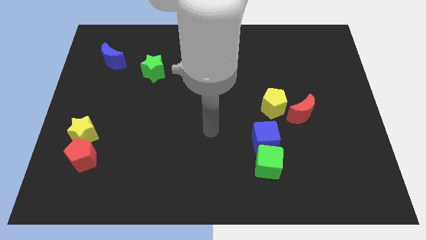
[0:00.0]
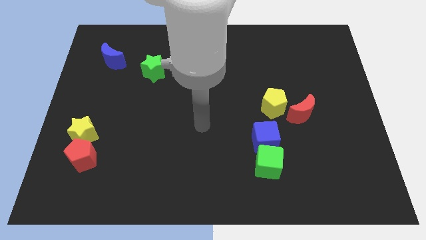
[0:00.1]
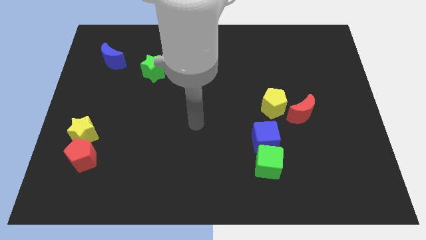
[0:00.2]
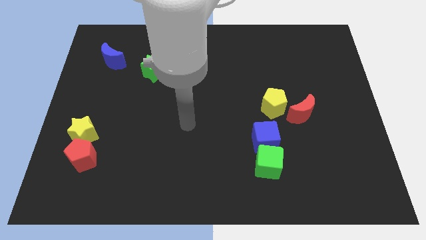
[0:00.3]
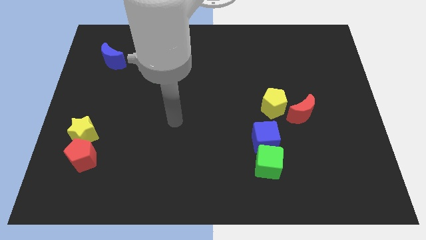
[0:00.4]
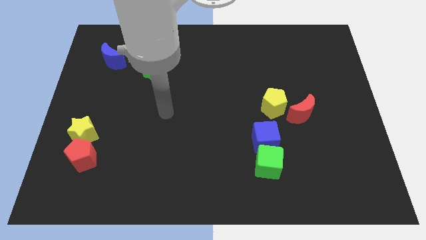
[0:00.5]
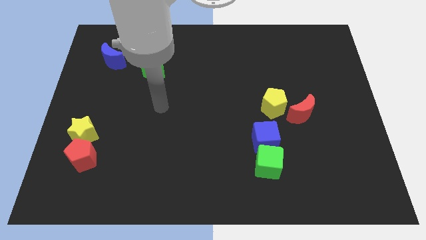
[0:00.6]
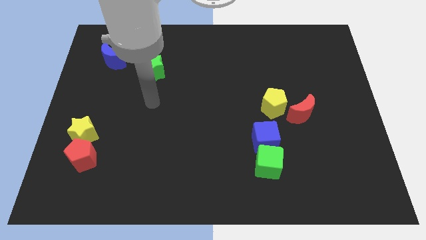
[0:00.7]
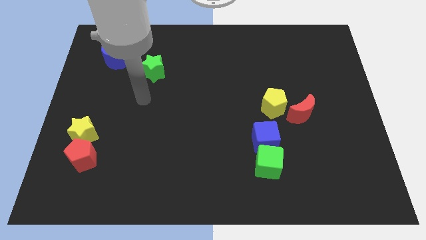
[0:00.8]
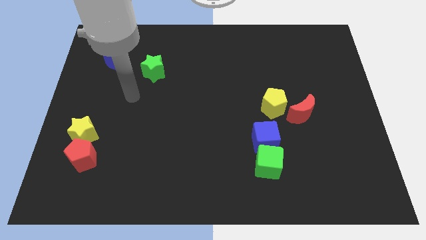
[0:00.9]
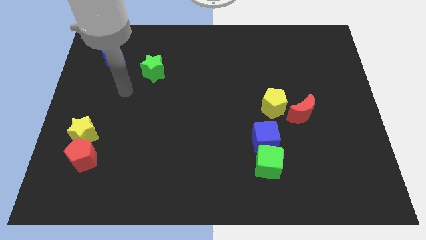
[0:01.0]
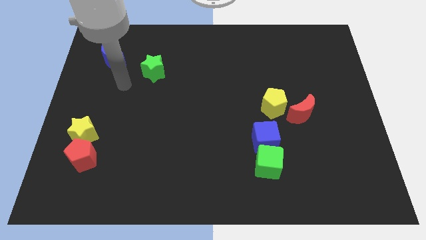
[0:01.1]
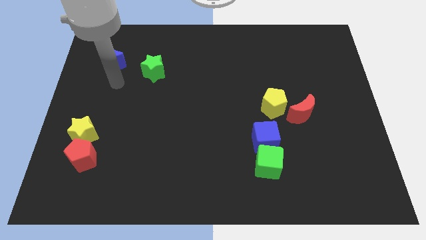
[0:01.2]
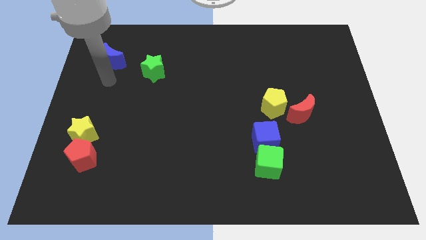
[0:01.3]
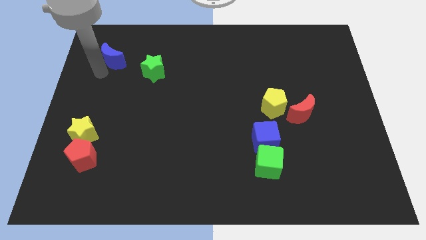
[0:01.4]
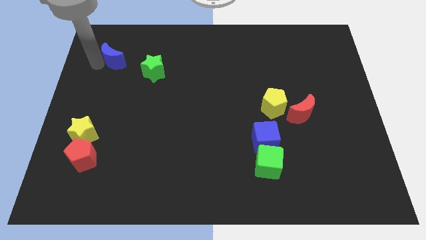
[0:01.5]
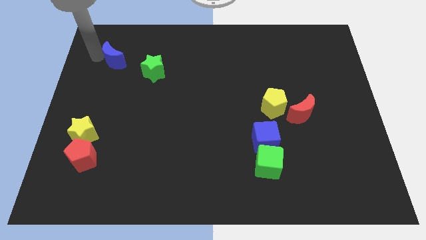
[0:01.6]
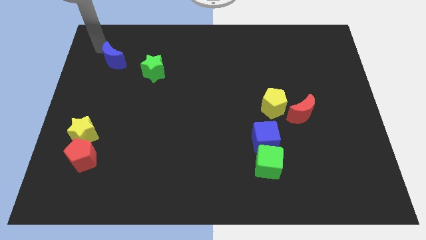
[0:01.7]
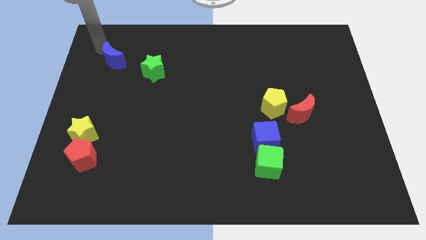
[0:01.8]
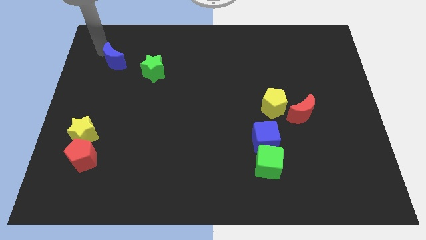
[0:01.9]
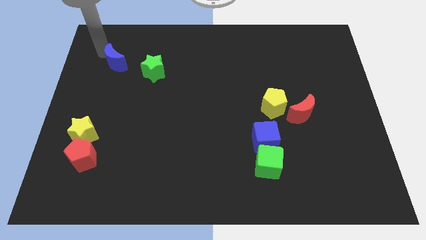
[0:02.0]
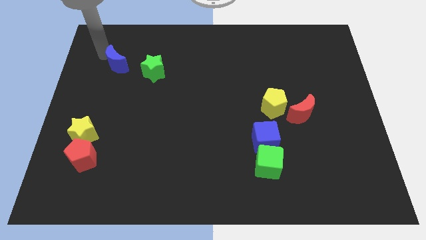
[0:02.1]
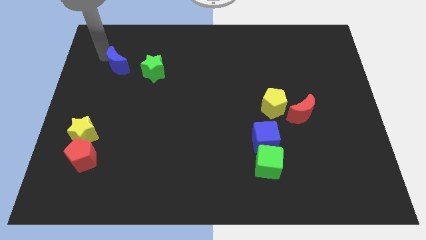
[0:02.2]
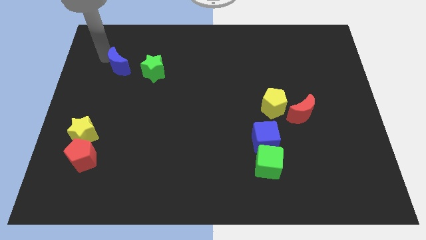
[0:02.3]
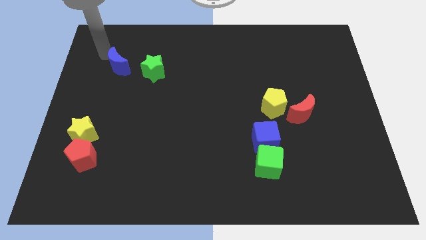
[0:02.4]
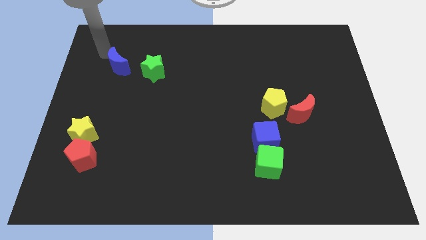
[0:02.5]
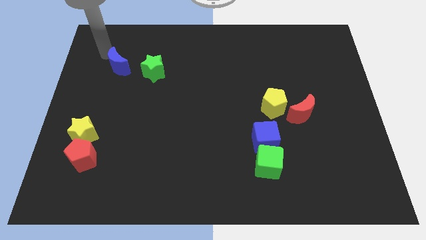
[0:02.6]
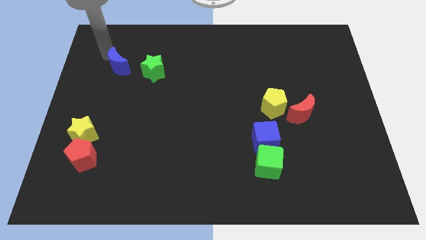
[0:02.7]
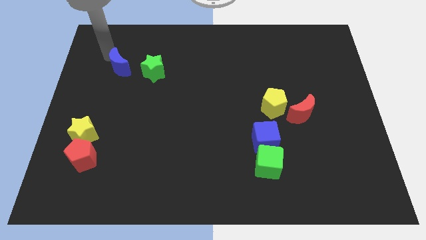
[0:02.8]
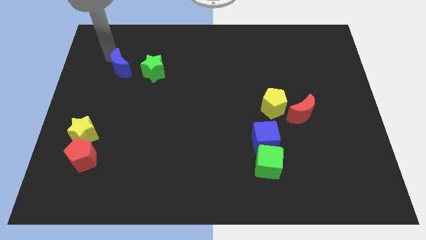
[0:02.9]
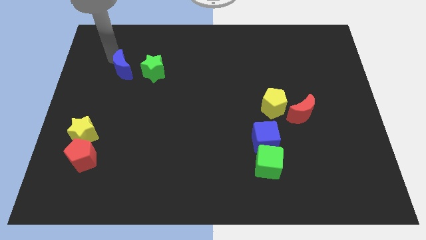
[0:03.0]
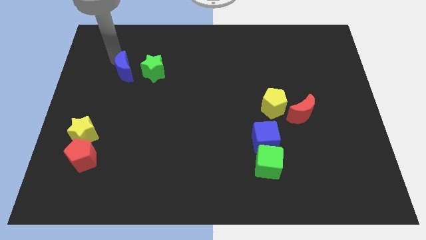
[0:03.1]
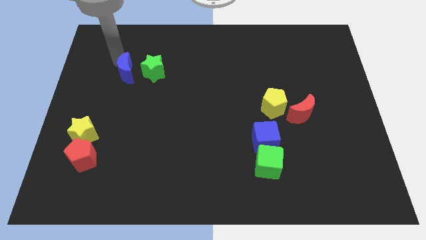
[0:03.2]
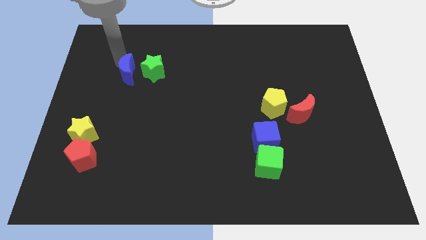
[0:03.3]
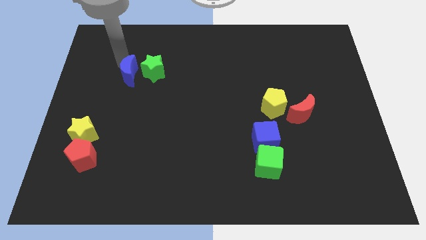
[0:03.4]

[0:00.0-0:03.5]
slide the blue moon downwards and then right a little bit

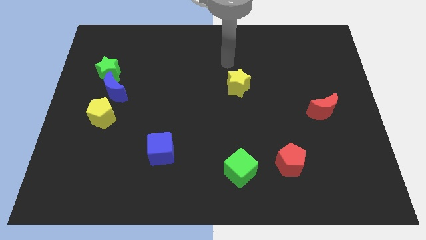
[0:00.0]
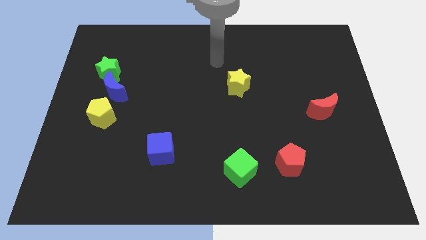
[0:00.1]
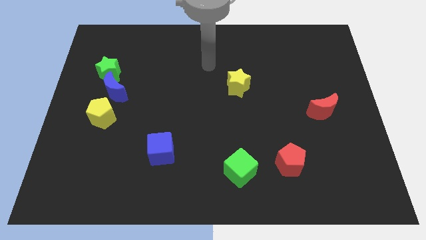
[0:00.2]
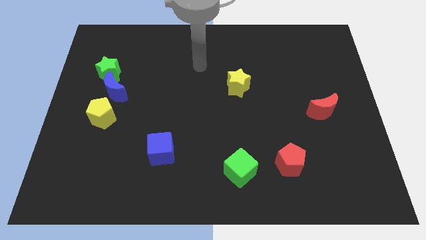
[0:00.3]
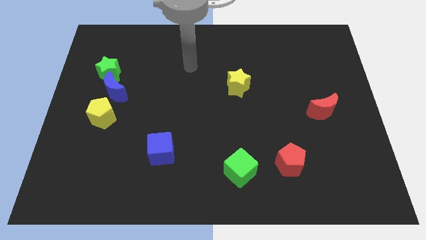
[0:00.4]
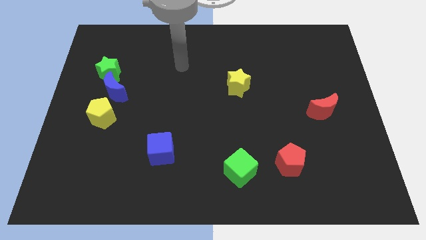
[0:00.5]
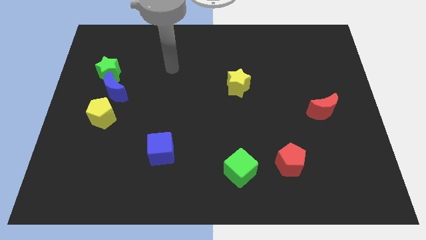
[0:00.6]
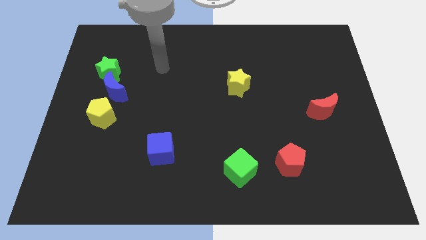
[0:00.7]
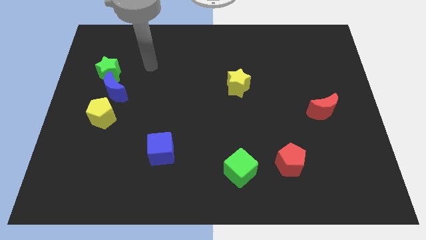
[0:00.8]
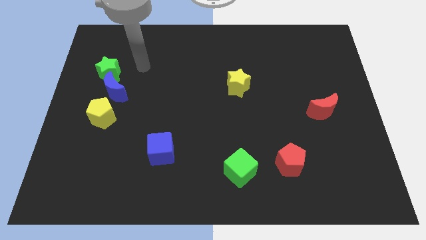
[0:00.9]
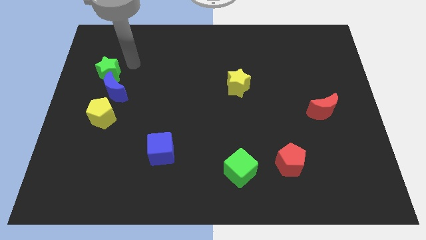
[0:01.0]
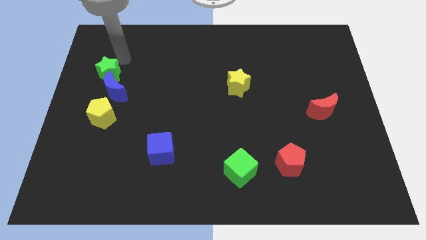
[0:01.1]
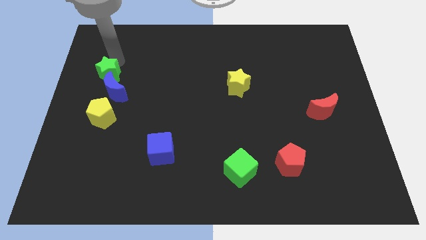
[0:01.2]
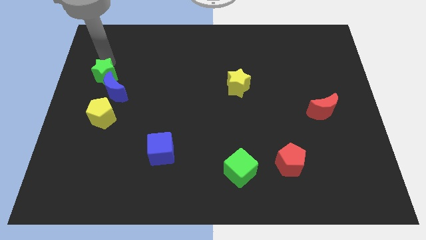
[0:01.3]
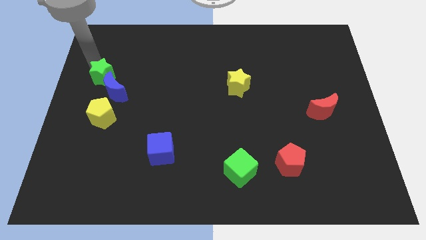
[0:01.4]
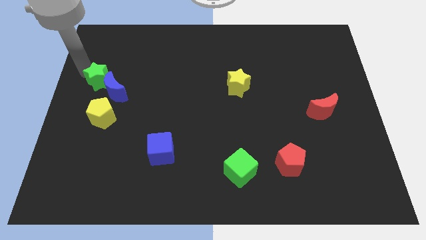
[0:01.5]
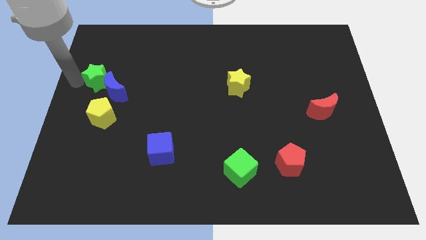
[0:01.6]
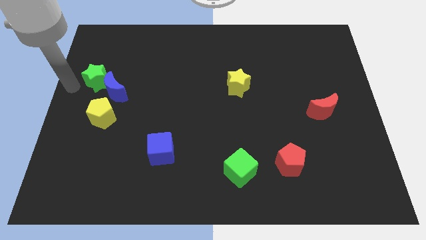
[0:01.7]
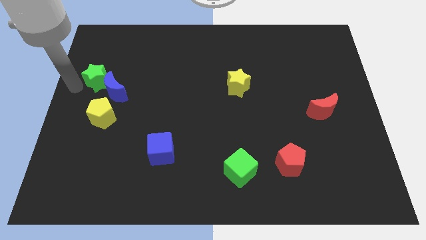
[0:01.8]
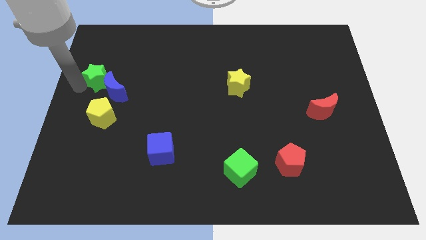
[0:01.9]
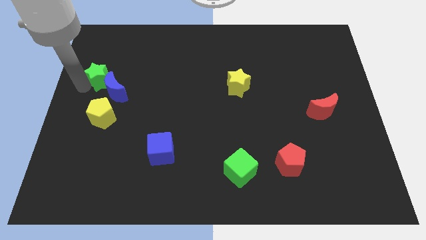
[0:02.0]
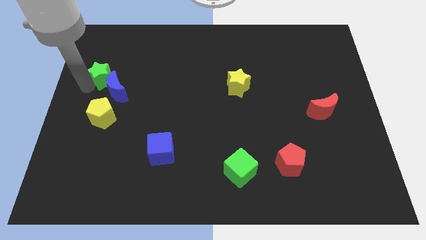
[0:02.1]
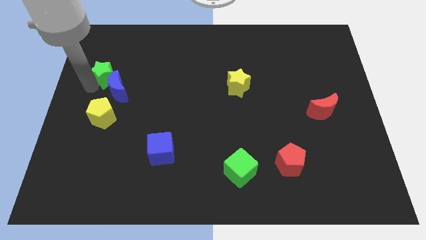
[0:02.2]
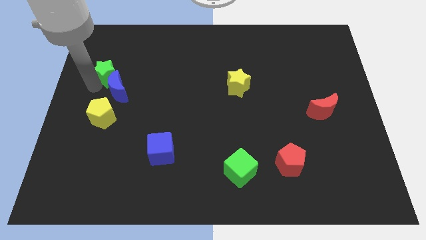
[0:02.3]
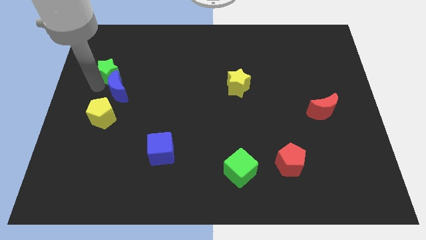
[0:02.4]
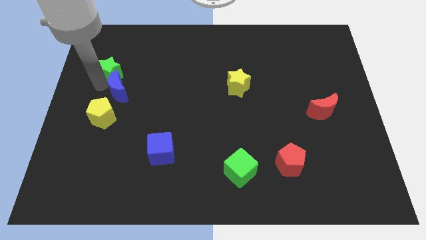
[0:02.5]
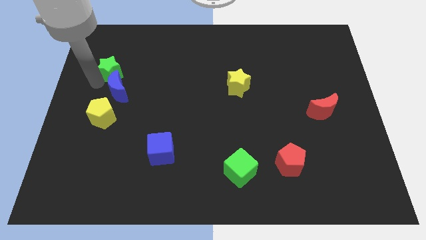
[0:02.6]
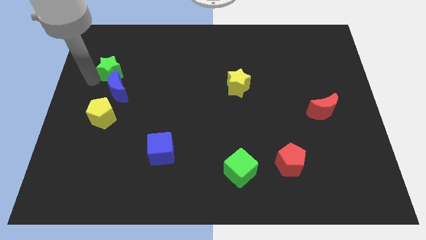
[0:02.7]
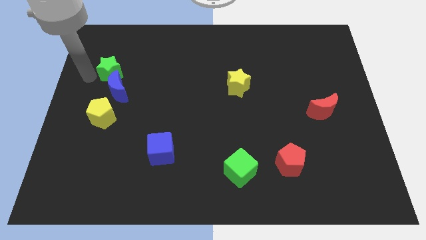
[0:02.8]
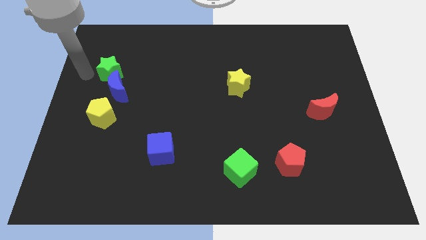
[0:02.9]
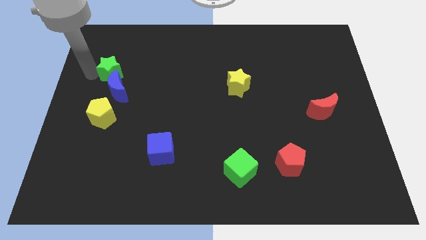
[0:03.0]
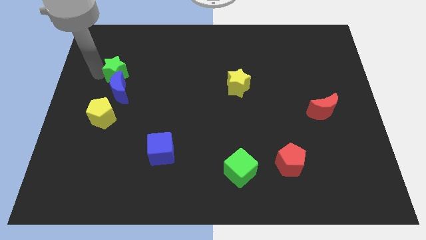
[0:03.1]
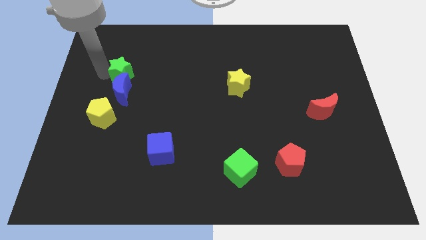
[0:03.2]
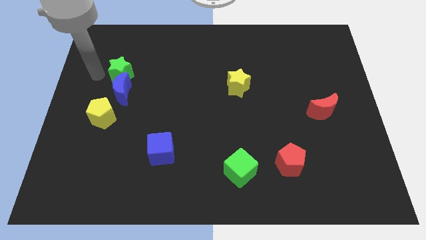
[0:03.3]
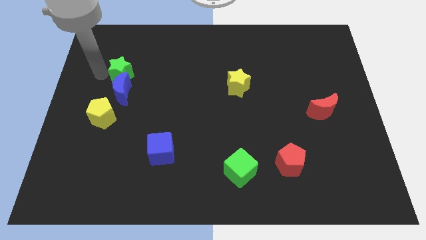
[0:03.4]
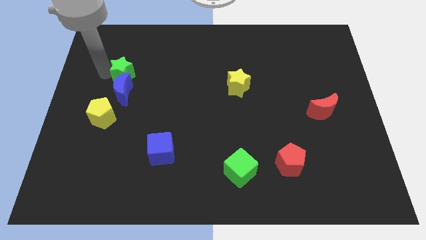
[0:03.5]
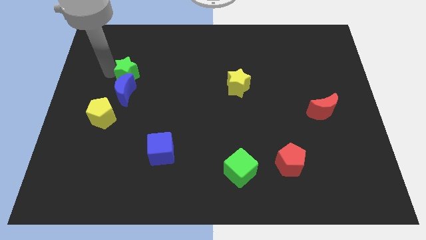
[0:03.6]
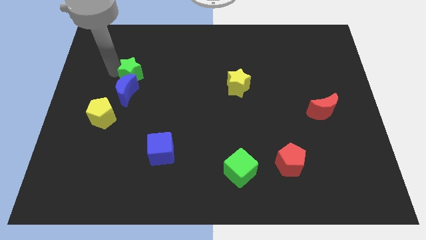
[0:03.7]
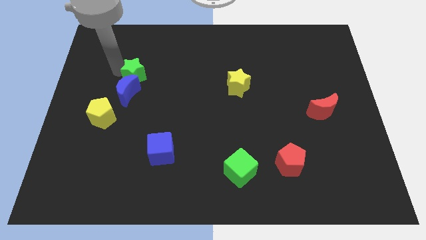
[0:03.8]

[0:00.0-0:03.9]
slightly push the green star right

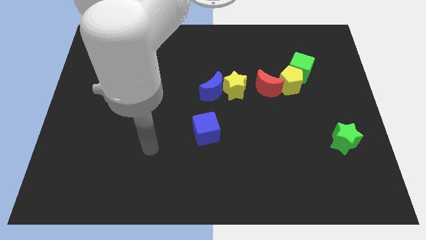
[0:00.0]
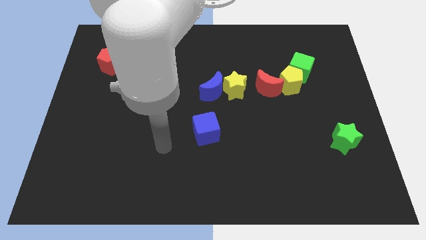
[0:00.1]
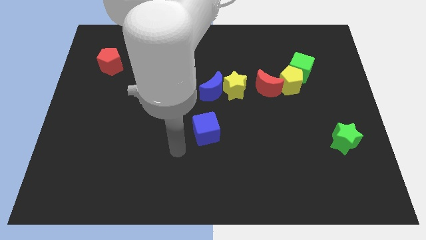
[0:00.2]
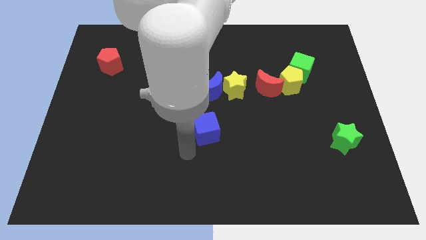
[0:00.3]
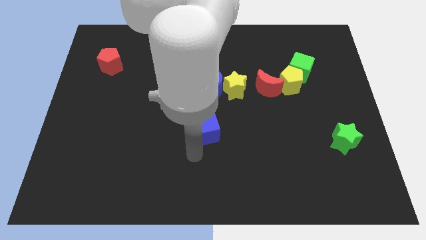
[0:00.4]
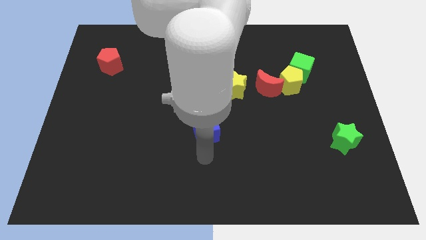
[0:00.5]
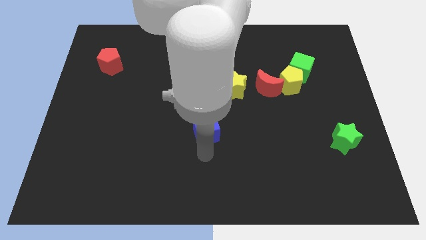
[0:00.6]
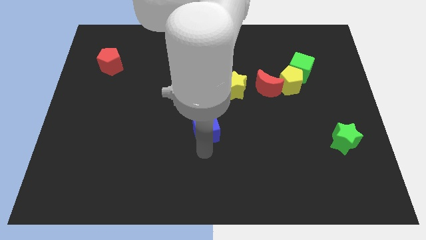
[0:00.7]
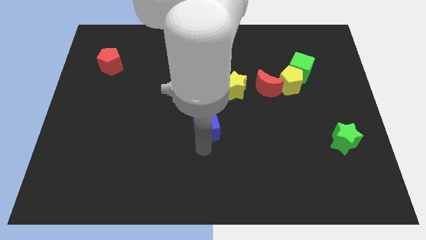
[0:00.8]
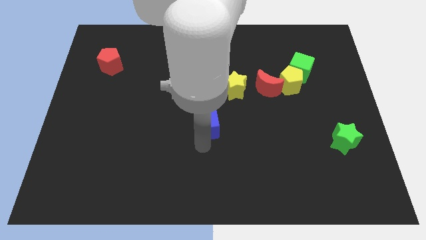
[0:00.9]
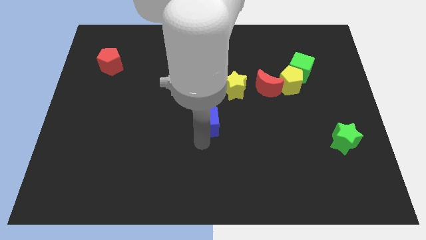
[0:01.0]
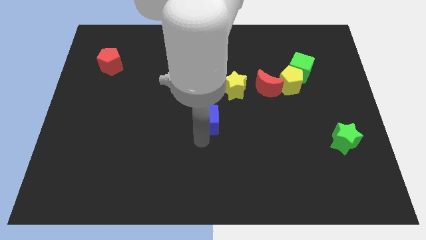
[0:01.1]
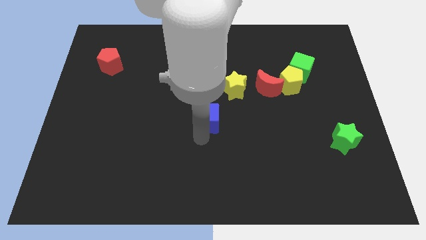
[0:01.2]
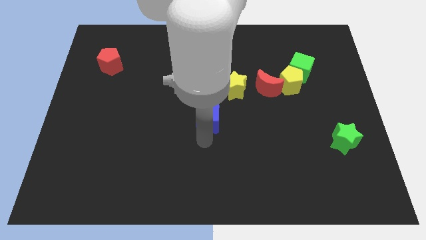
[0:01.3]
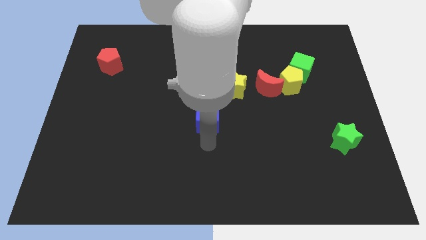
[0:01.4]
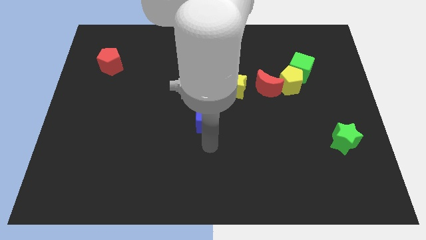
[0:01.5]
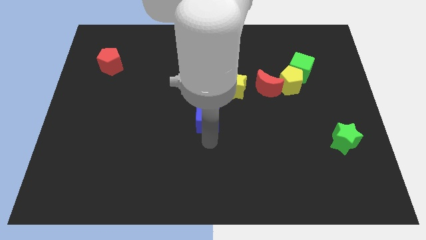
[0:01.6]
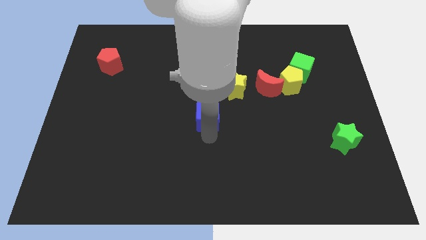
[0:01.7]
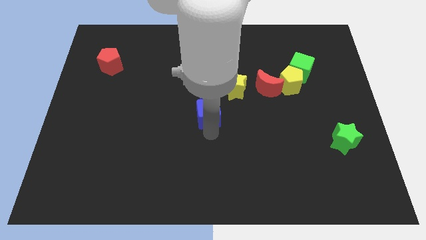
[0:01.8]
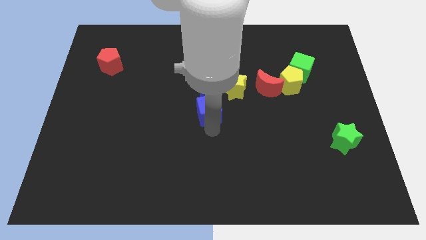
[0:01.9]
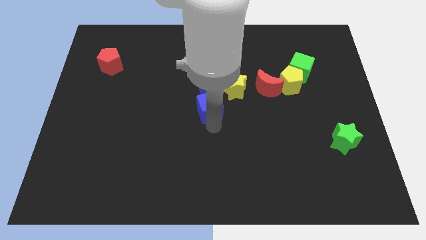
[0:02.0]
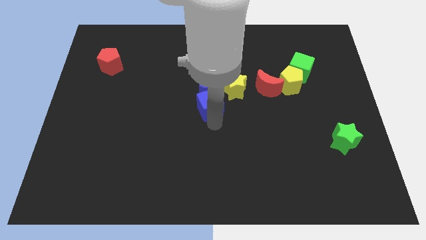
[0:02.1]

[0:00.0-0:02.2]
push the blue cube upwards somewhat
